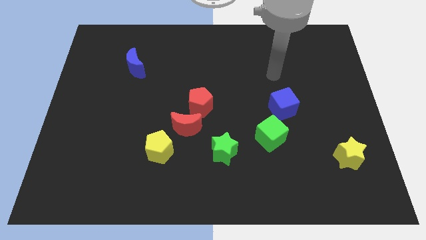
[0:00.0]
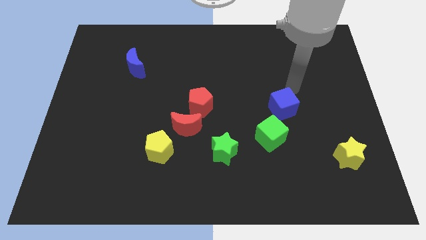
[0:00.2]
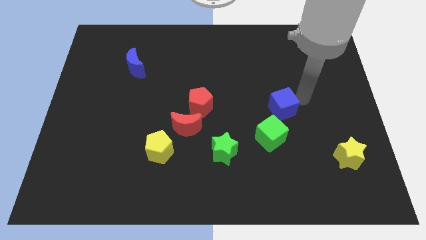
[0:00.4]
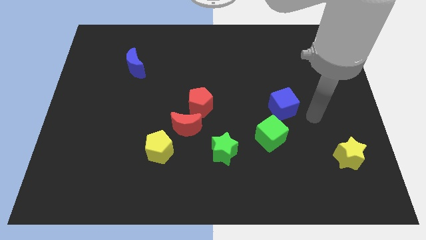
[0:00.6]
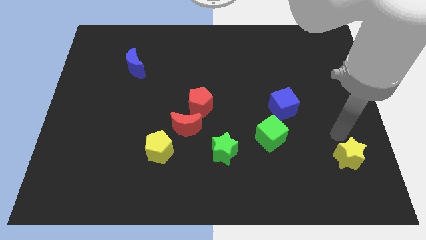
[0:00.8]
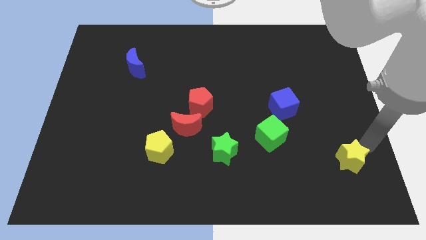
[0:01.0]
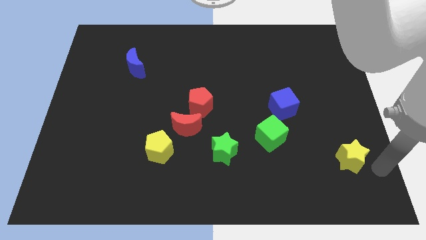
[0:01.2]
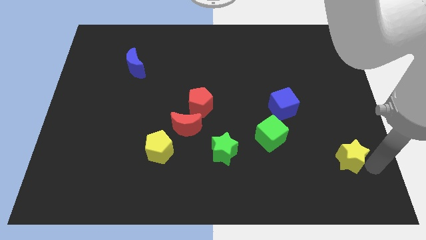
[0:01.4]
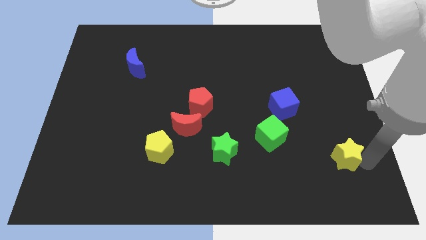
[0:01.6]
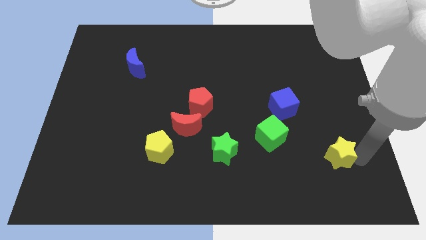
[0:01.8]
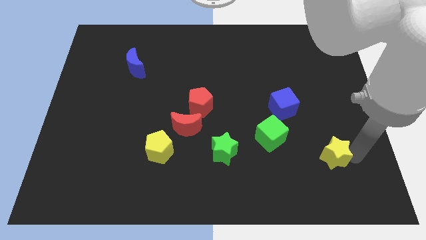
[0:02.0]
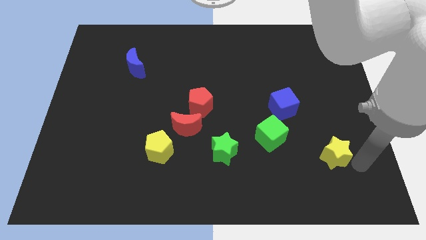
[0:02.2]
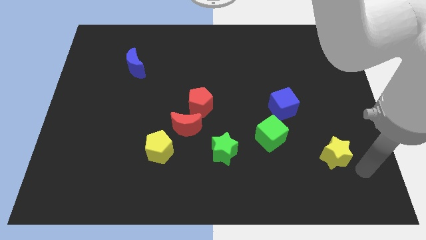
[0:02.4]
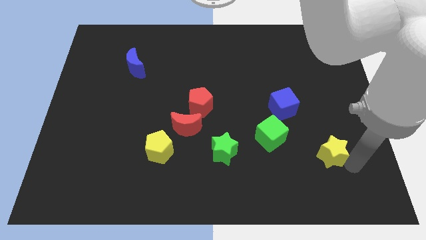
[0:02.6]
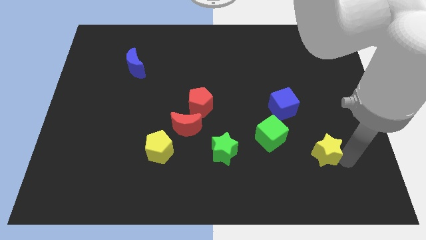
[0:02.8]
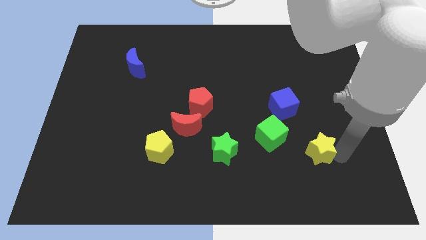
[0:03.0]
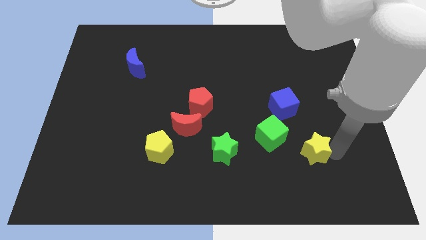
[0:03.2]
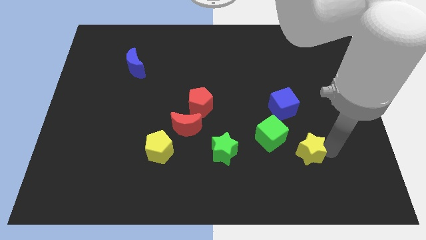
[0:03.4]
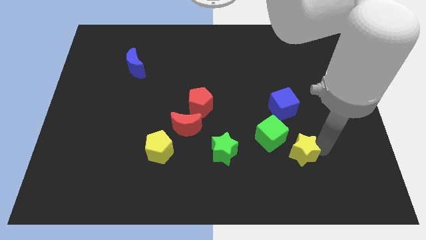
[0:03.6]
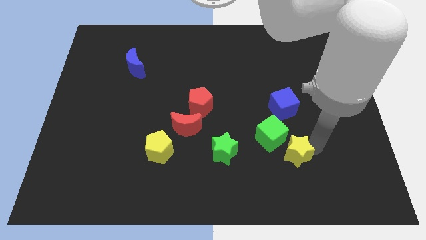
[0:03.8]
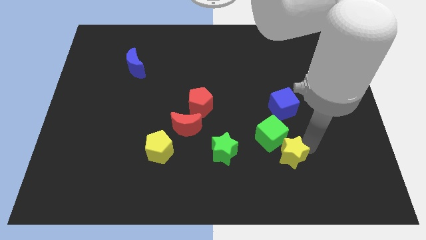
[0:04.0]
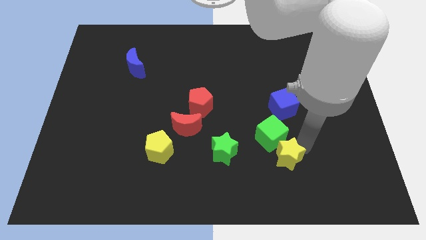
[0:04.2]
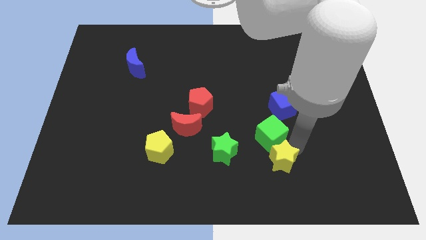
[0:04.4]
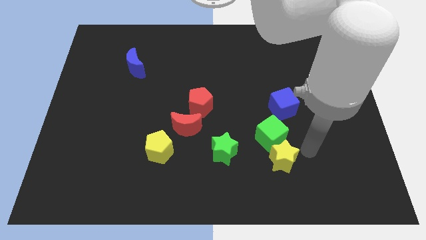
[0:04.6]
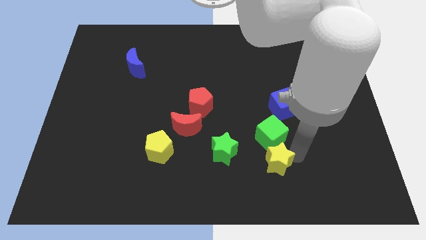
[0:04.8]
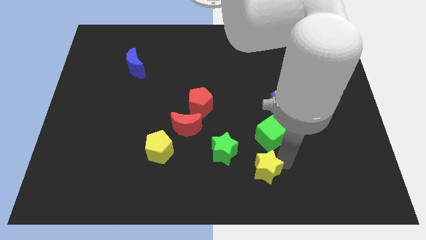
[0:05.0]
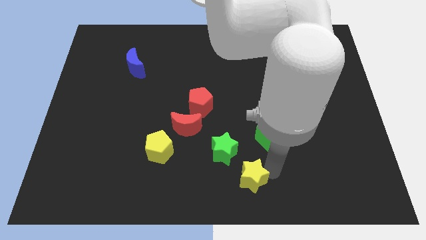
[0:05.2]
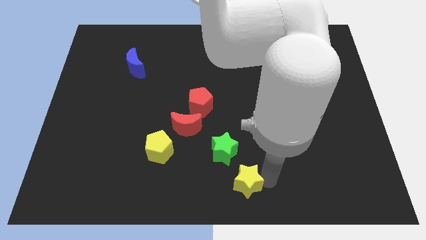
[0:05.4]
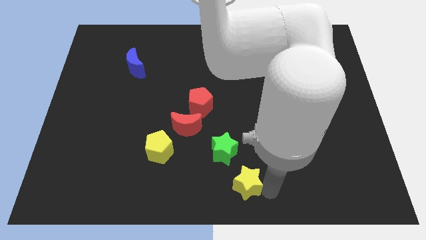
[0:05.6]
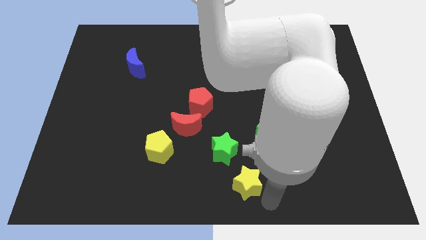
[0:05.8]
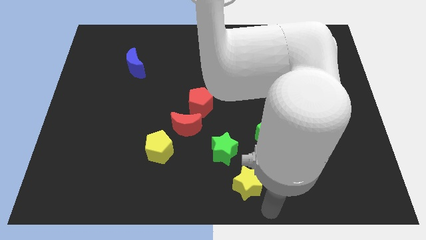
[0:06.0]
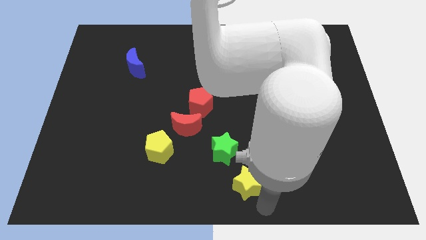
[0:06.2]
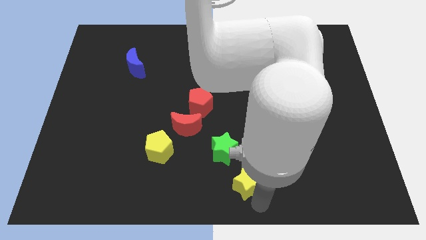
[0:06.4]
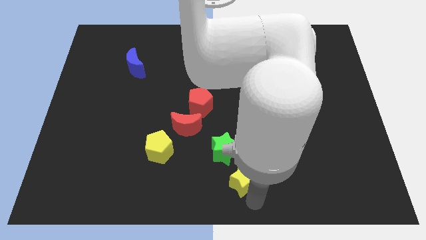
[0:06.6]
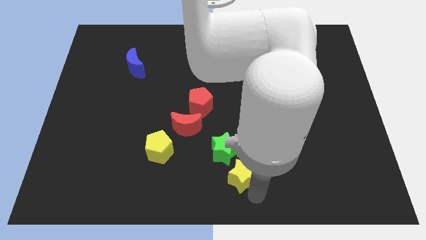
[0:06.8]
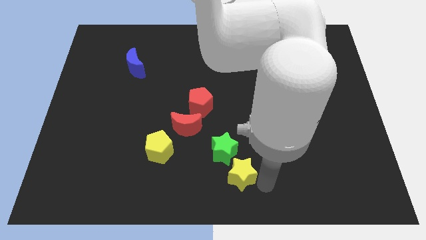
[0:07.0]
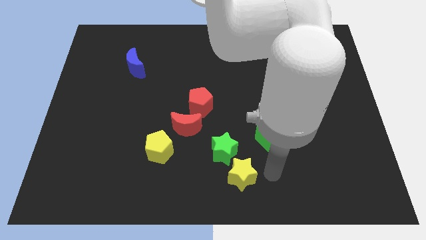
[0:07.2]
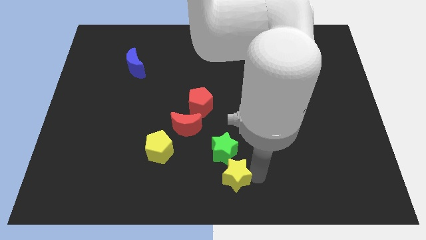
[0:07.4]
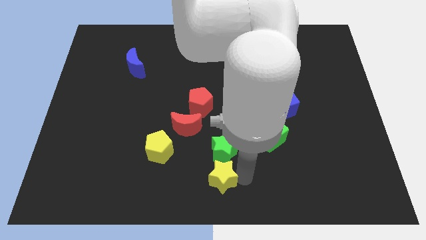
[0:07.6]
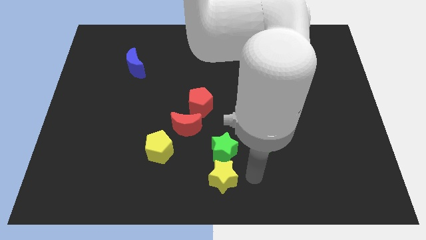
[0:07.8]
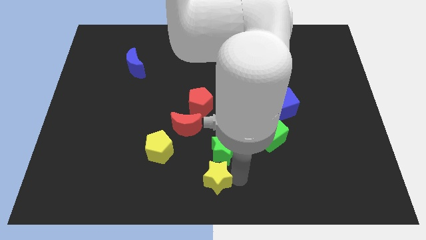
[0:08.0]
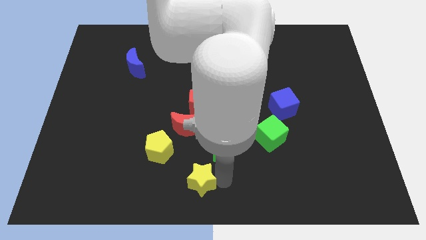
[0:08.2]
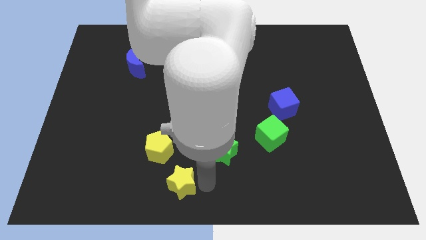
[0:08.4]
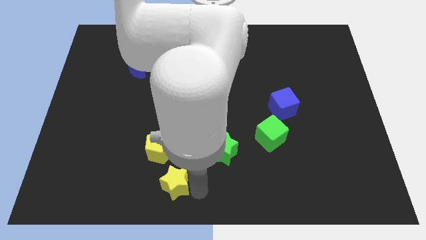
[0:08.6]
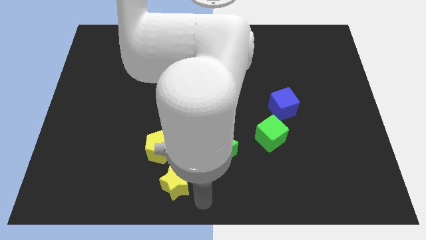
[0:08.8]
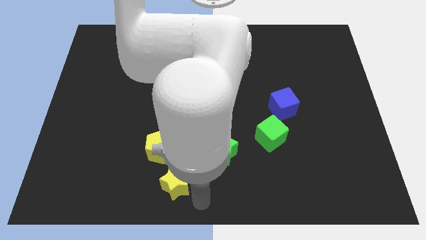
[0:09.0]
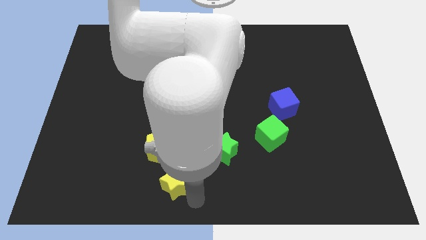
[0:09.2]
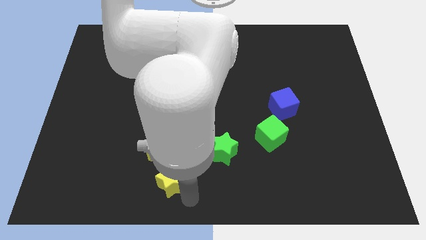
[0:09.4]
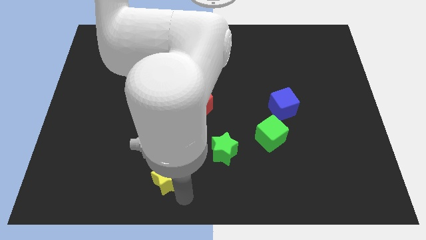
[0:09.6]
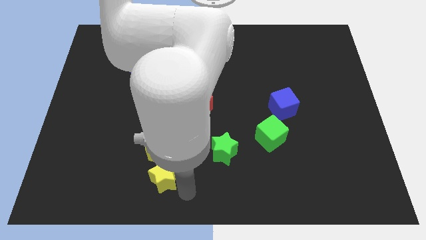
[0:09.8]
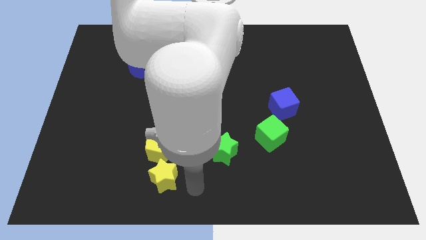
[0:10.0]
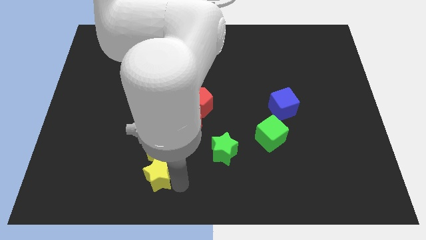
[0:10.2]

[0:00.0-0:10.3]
slide the yellow star to the bottom left of the yellow pentagon
